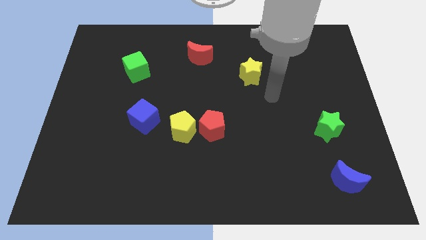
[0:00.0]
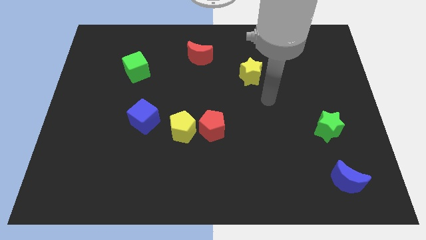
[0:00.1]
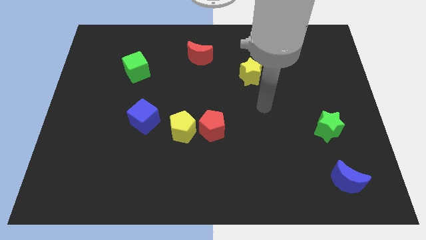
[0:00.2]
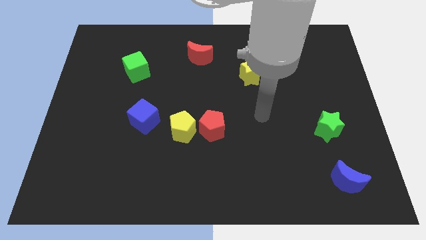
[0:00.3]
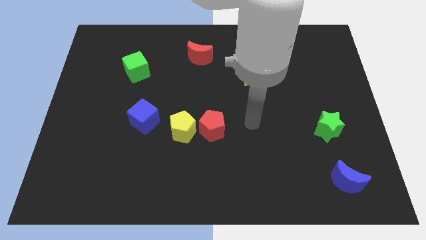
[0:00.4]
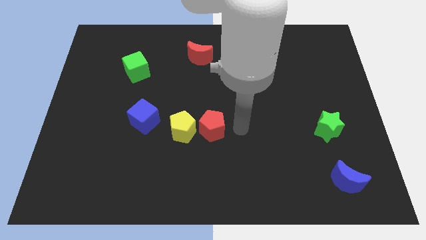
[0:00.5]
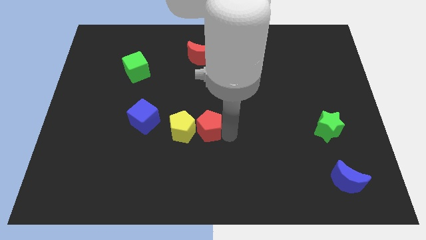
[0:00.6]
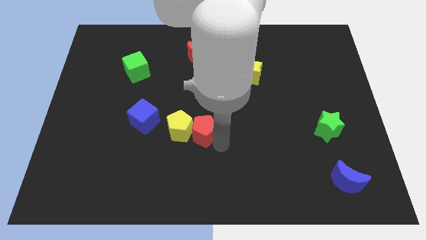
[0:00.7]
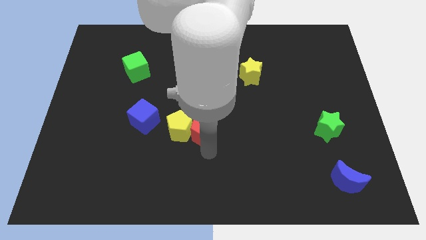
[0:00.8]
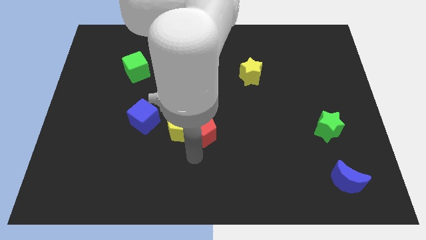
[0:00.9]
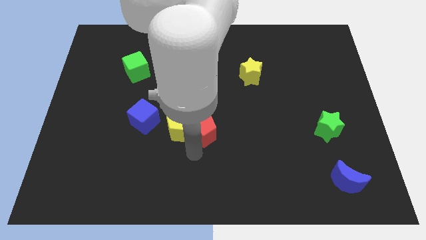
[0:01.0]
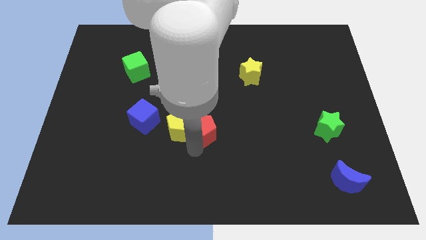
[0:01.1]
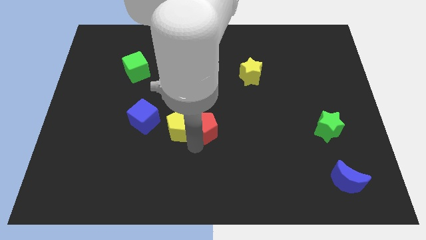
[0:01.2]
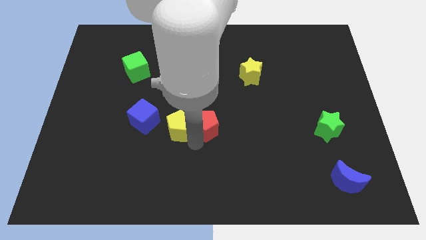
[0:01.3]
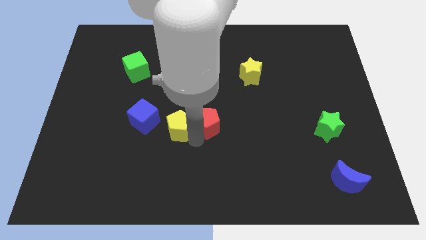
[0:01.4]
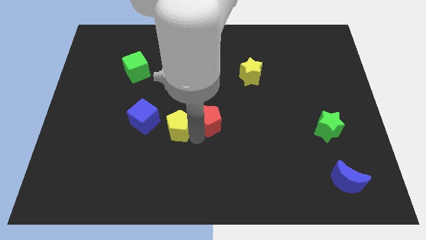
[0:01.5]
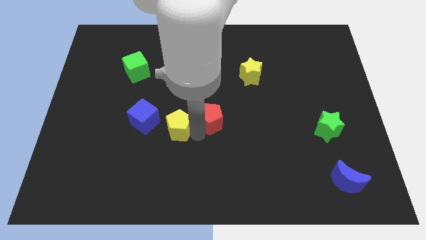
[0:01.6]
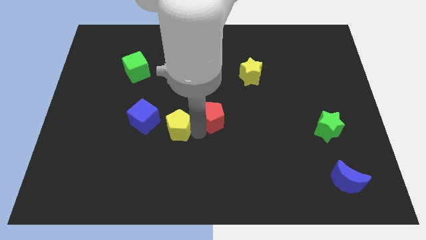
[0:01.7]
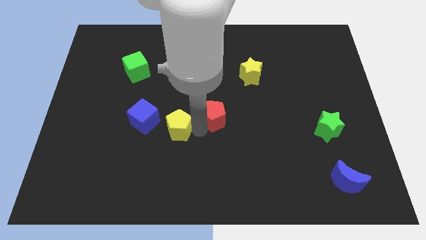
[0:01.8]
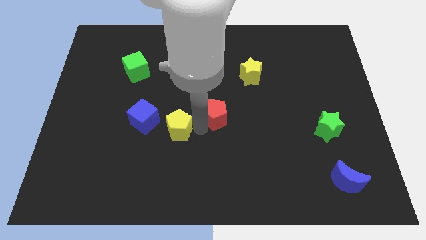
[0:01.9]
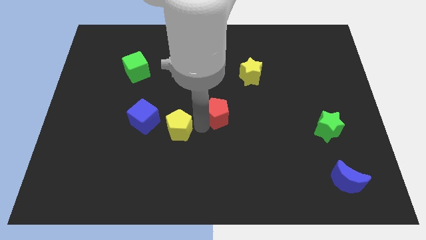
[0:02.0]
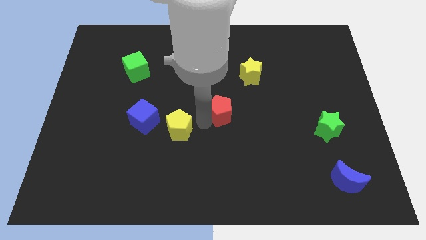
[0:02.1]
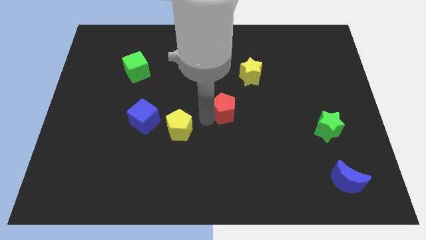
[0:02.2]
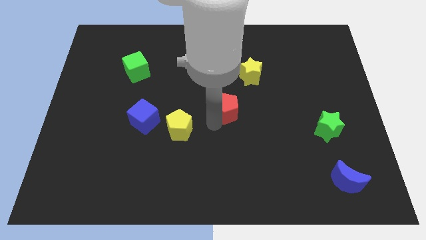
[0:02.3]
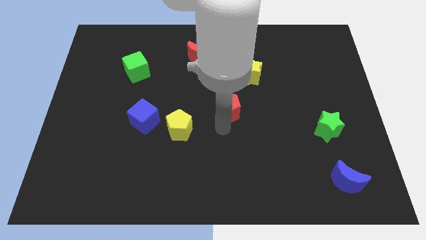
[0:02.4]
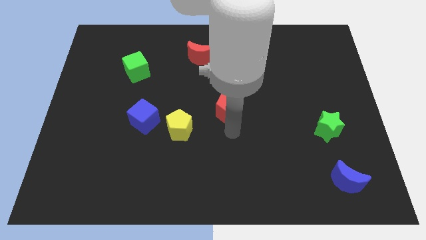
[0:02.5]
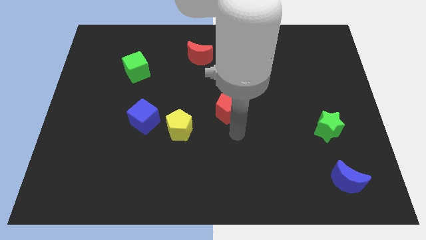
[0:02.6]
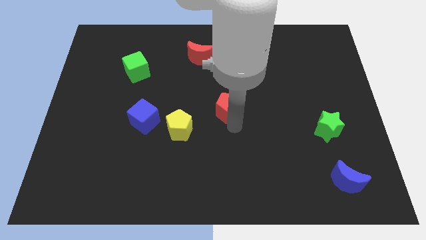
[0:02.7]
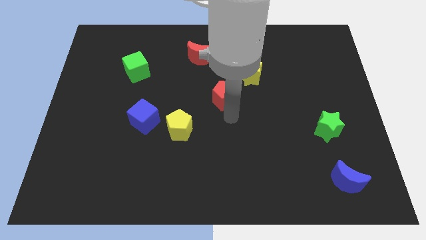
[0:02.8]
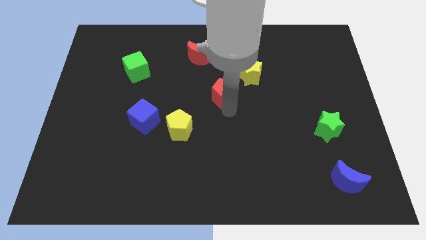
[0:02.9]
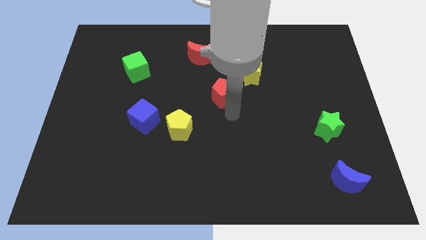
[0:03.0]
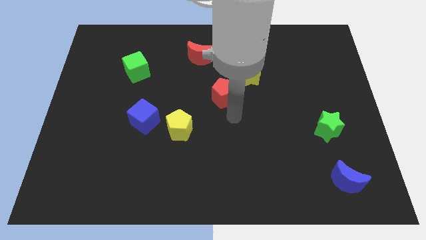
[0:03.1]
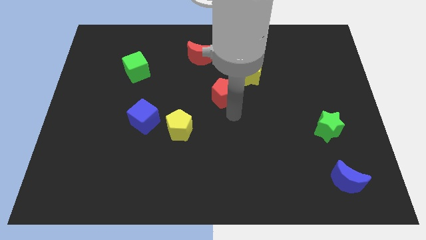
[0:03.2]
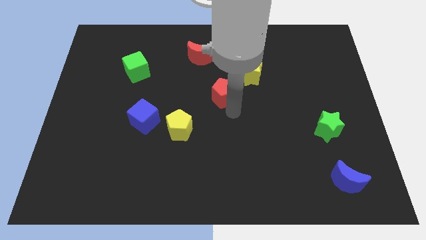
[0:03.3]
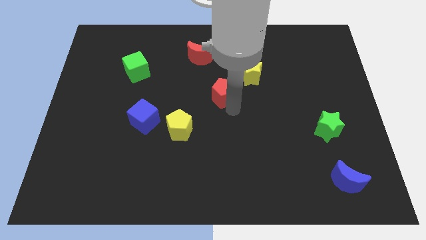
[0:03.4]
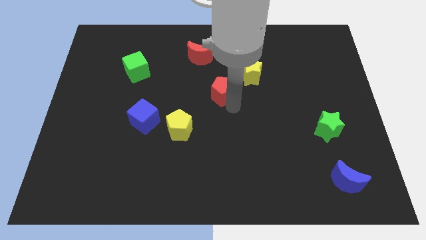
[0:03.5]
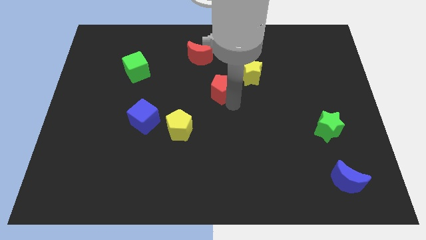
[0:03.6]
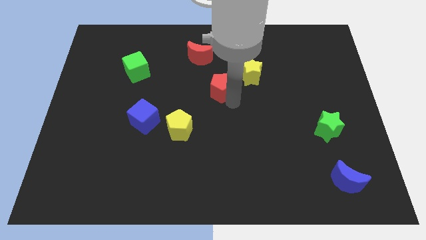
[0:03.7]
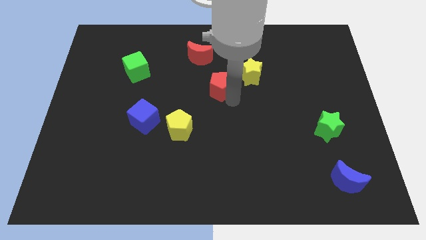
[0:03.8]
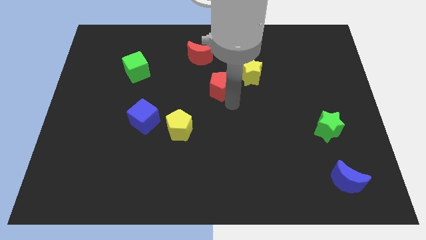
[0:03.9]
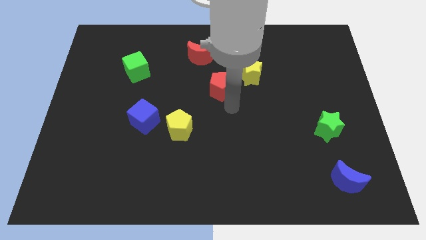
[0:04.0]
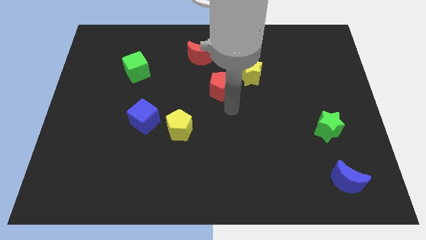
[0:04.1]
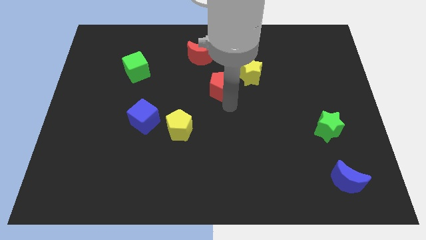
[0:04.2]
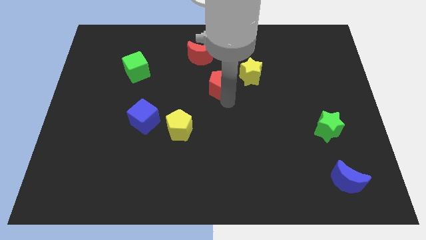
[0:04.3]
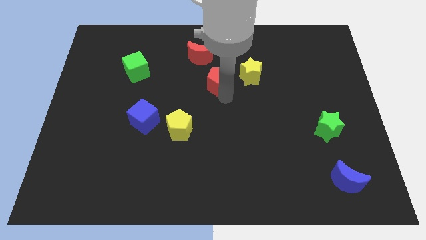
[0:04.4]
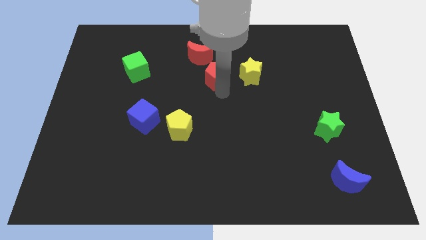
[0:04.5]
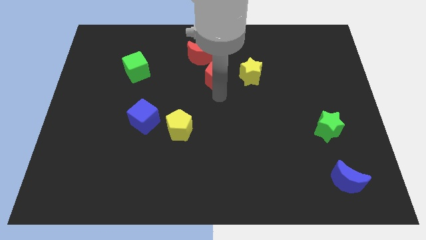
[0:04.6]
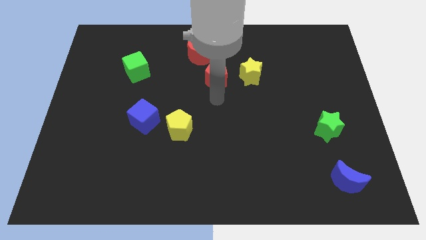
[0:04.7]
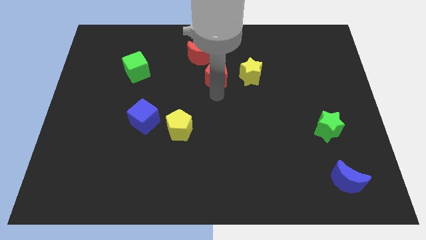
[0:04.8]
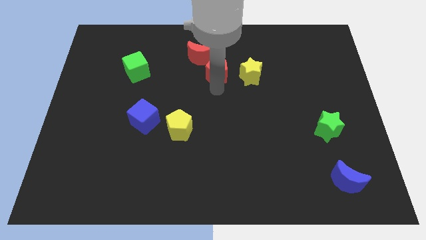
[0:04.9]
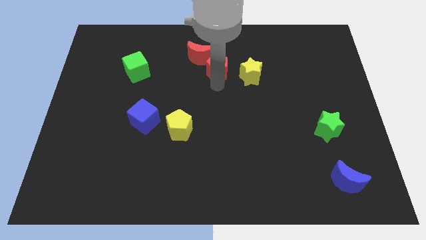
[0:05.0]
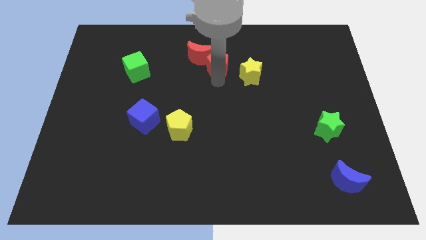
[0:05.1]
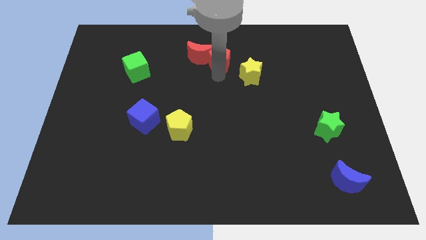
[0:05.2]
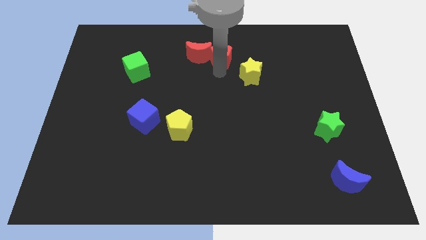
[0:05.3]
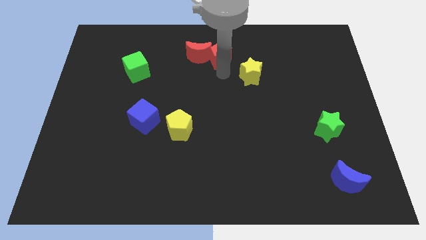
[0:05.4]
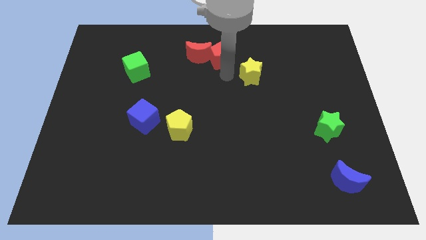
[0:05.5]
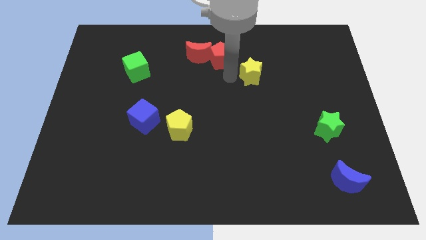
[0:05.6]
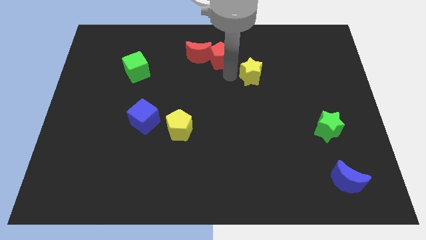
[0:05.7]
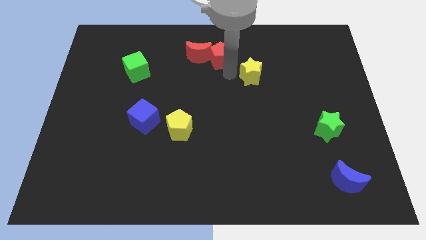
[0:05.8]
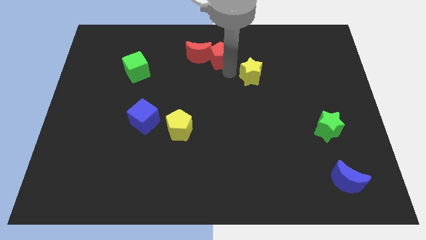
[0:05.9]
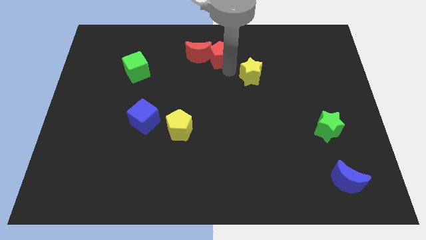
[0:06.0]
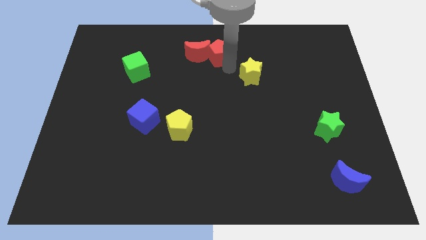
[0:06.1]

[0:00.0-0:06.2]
put the red pentagon to the top

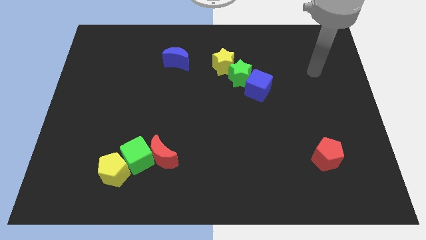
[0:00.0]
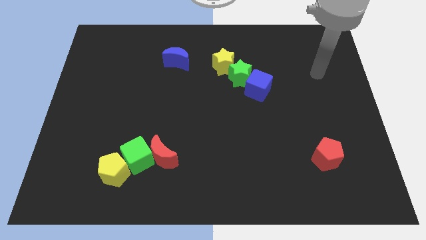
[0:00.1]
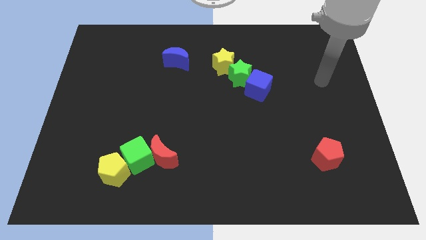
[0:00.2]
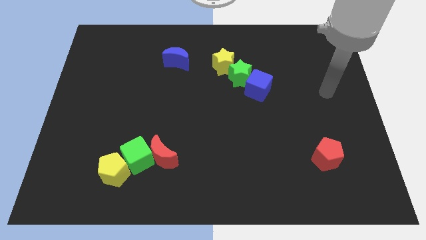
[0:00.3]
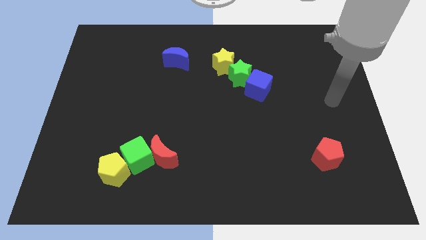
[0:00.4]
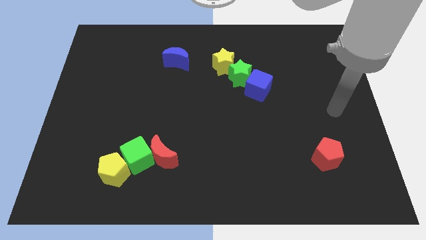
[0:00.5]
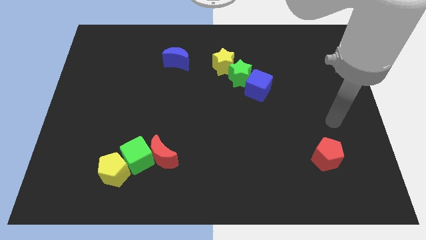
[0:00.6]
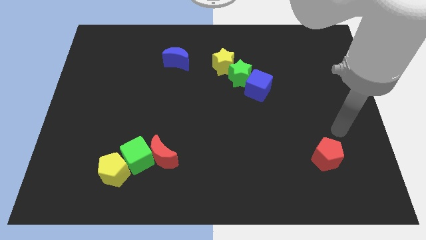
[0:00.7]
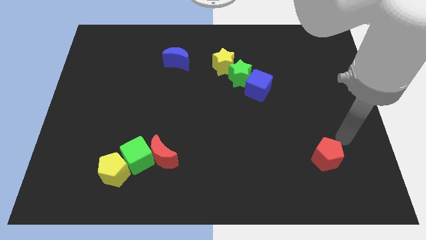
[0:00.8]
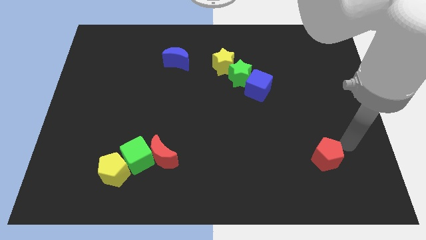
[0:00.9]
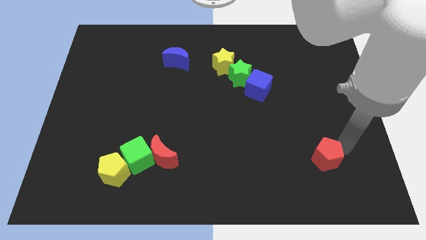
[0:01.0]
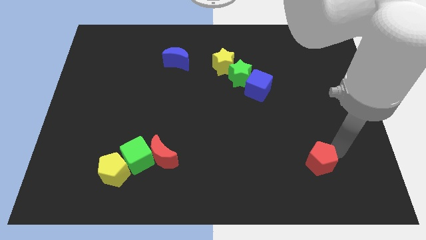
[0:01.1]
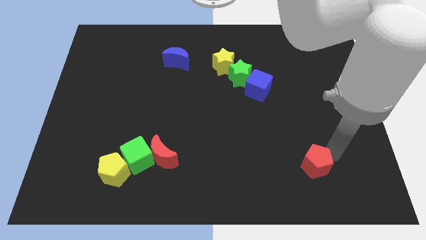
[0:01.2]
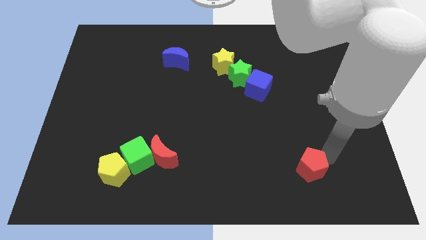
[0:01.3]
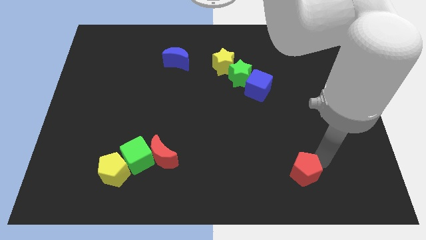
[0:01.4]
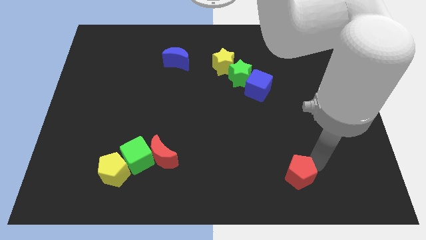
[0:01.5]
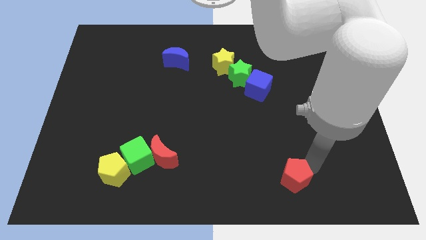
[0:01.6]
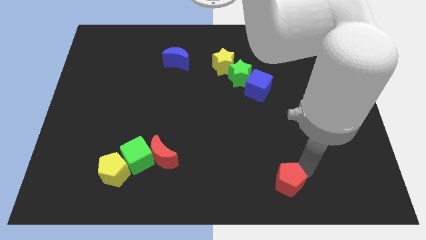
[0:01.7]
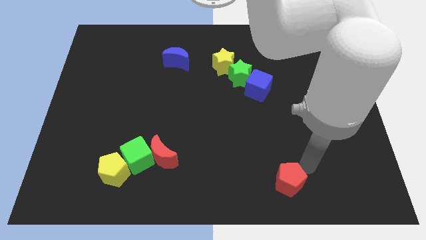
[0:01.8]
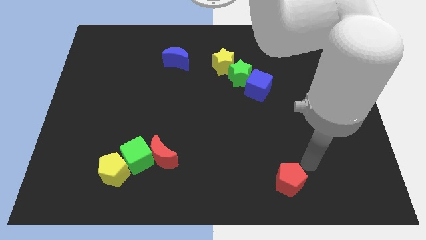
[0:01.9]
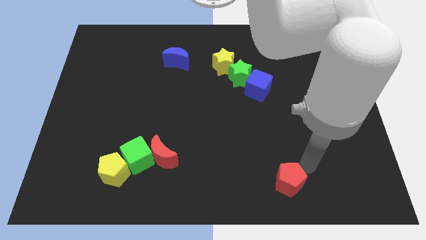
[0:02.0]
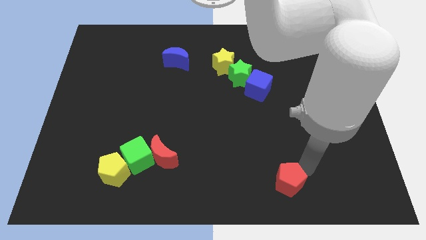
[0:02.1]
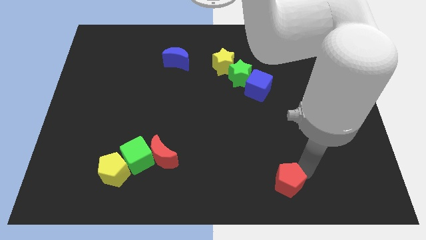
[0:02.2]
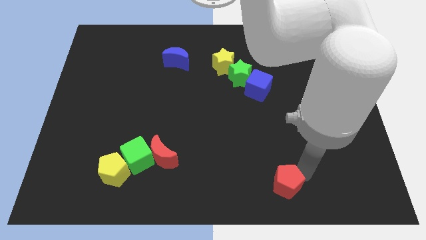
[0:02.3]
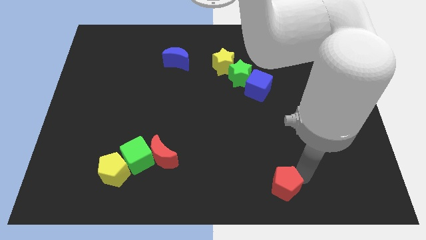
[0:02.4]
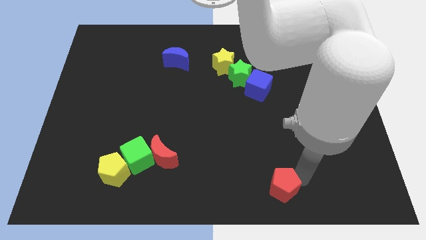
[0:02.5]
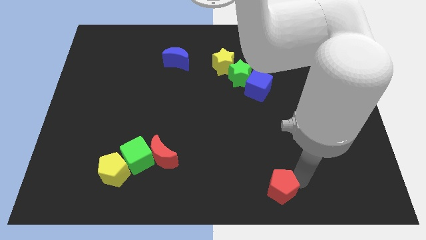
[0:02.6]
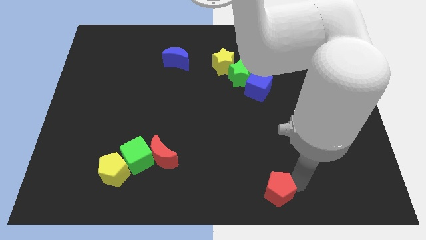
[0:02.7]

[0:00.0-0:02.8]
put the red pentagon to the bottom side
